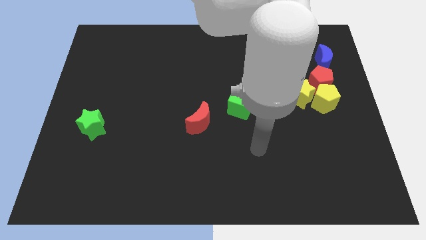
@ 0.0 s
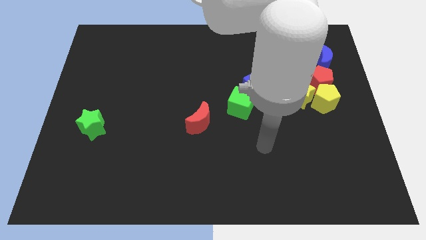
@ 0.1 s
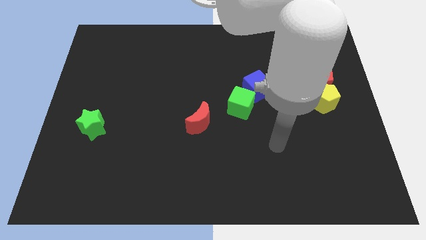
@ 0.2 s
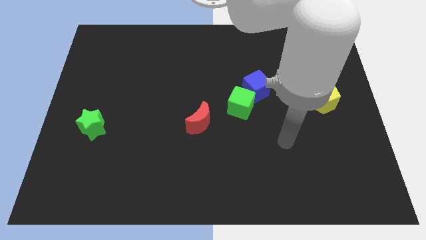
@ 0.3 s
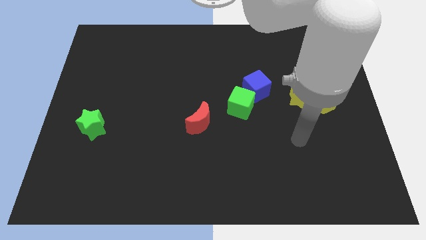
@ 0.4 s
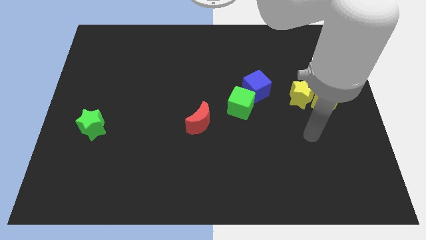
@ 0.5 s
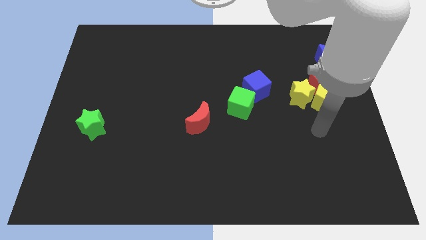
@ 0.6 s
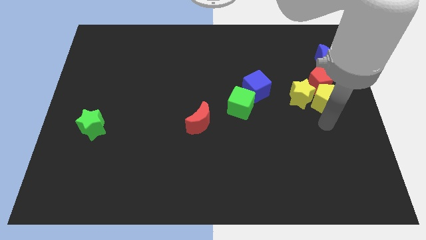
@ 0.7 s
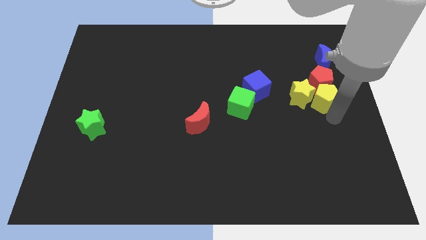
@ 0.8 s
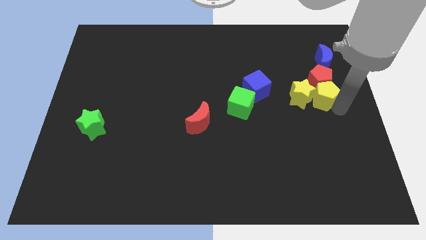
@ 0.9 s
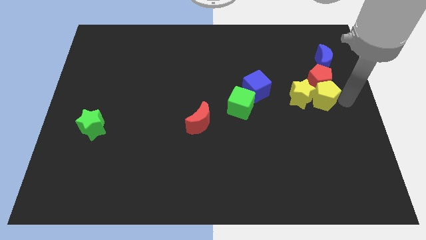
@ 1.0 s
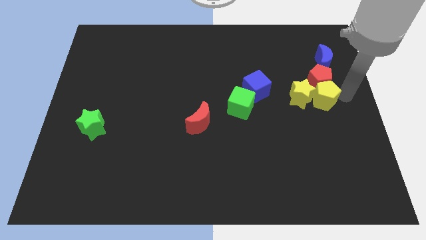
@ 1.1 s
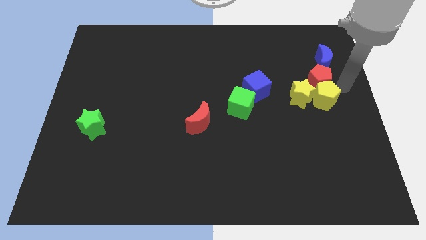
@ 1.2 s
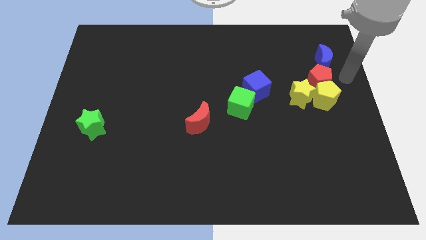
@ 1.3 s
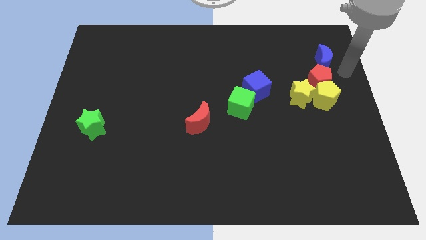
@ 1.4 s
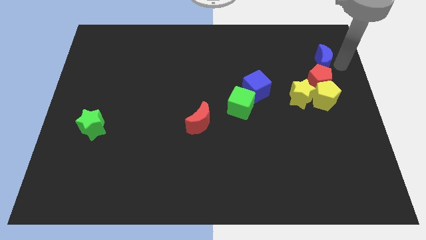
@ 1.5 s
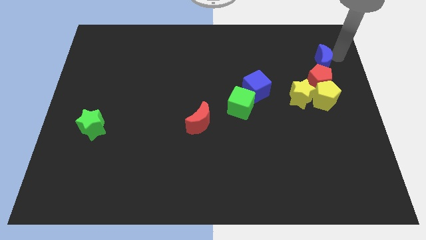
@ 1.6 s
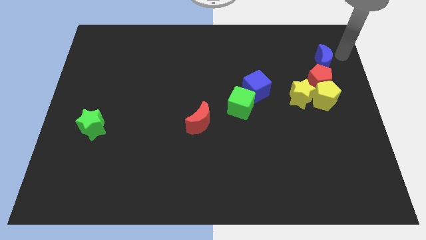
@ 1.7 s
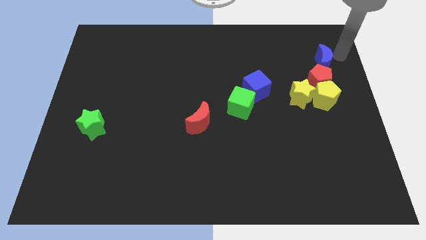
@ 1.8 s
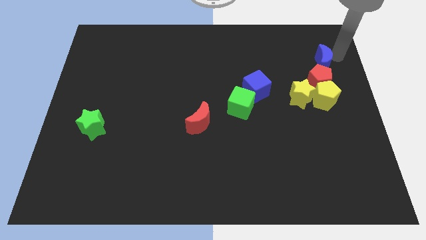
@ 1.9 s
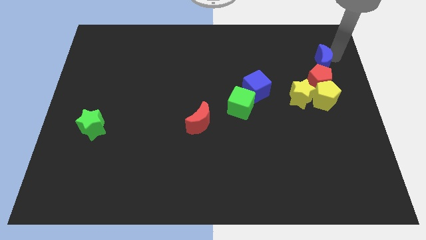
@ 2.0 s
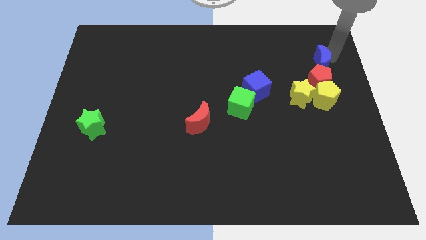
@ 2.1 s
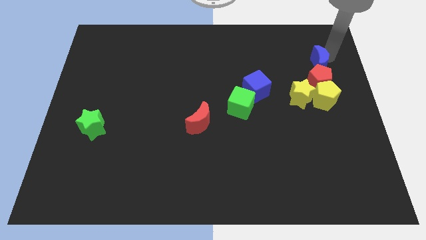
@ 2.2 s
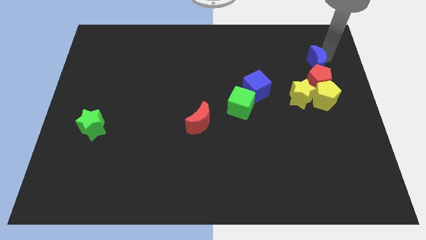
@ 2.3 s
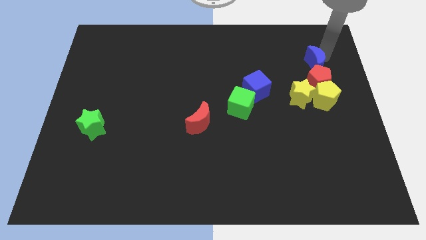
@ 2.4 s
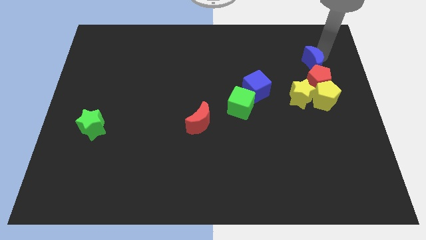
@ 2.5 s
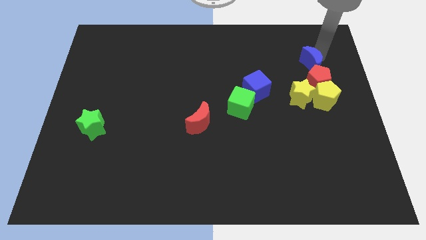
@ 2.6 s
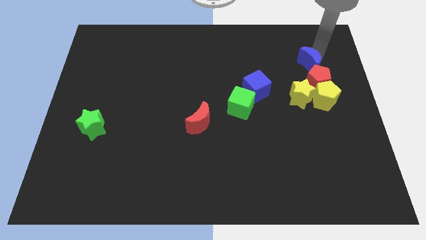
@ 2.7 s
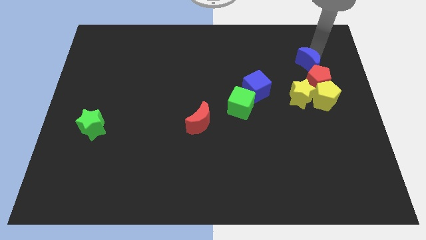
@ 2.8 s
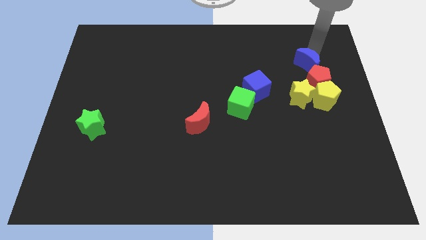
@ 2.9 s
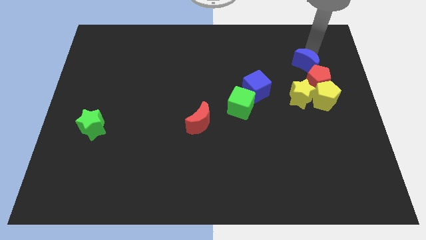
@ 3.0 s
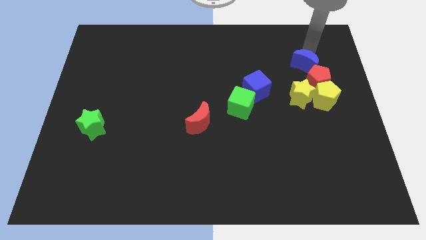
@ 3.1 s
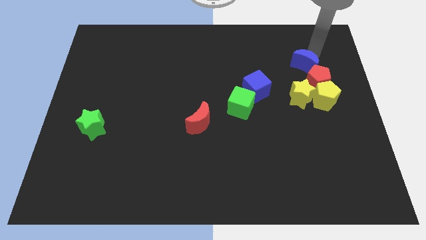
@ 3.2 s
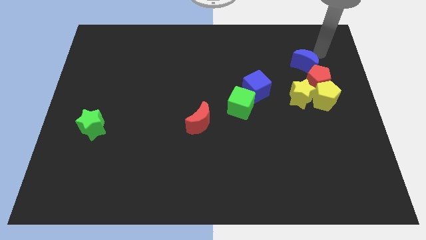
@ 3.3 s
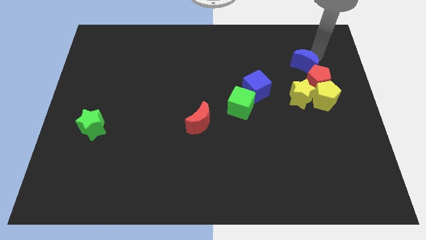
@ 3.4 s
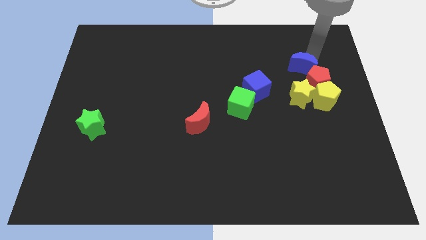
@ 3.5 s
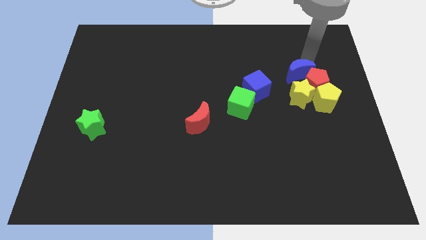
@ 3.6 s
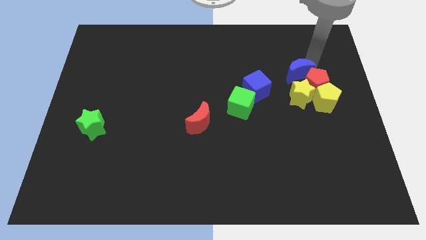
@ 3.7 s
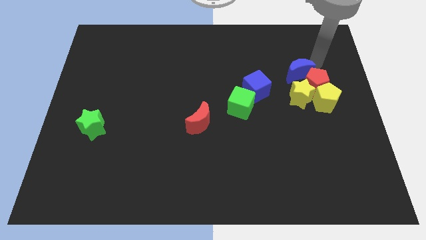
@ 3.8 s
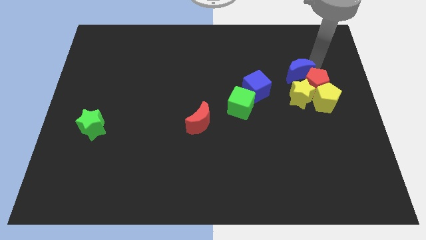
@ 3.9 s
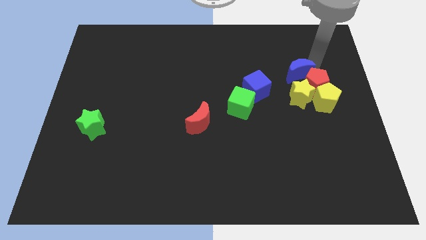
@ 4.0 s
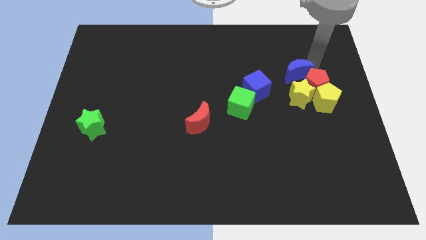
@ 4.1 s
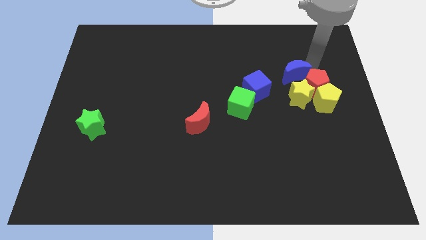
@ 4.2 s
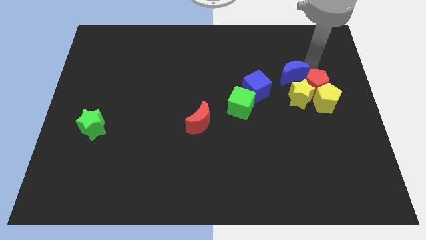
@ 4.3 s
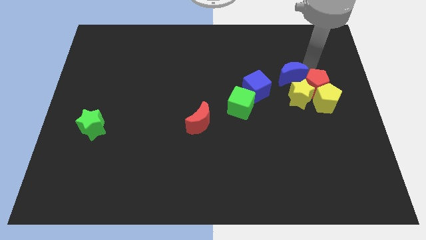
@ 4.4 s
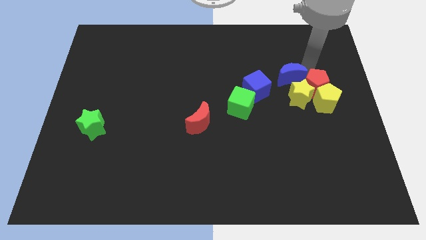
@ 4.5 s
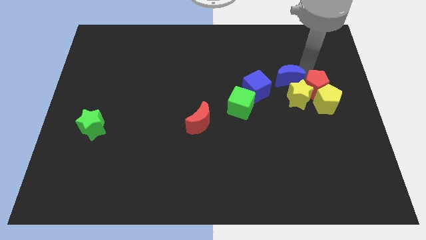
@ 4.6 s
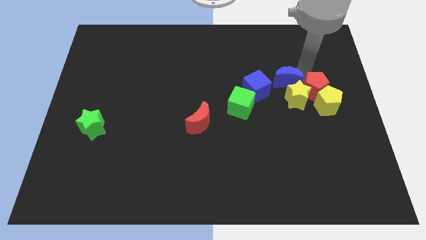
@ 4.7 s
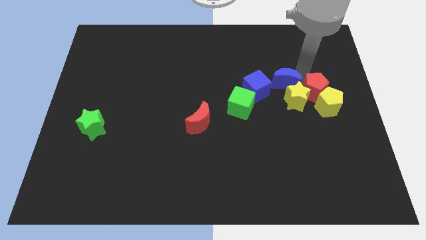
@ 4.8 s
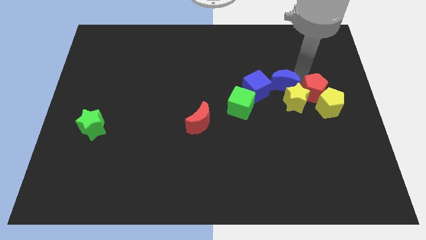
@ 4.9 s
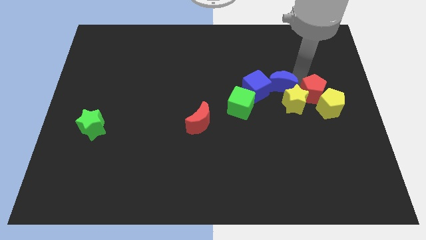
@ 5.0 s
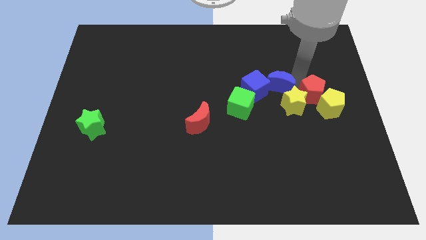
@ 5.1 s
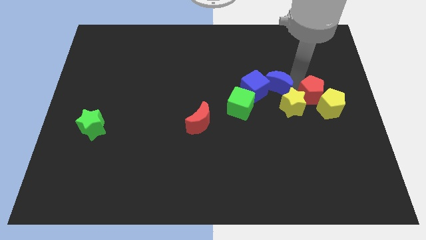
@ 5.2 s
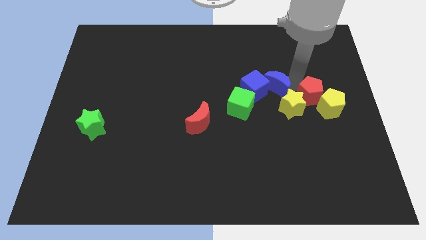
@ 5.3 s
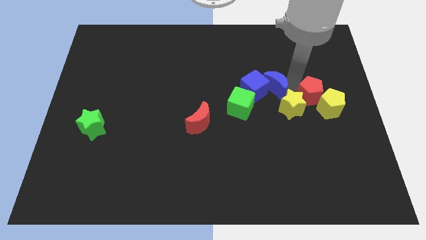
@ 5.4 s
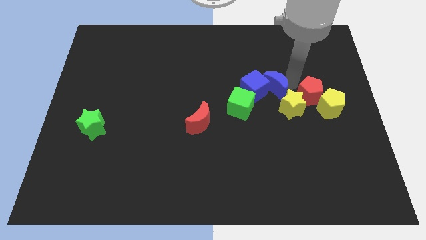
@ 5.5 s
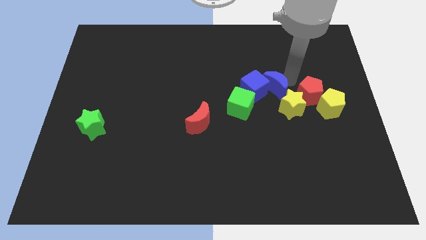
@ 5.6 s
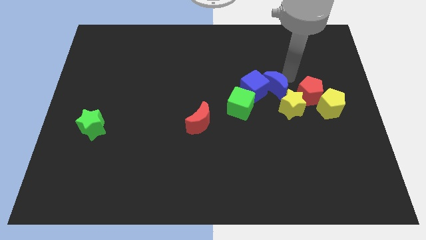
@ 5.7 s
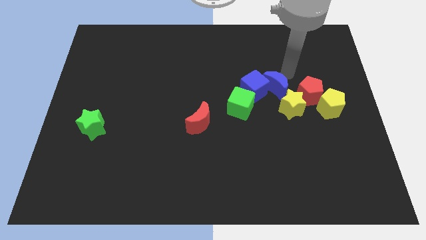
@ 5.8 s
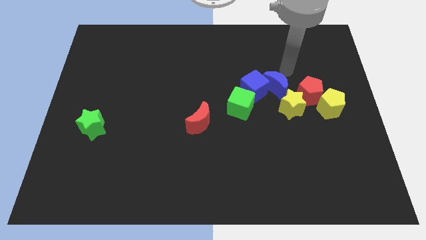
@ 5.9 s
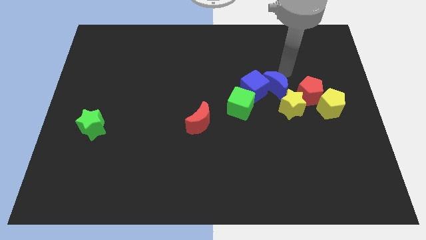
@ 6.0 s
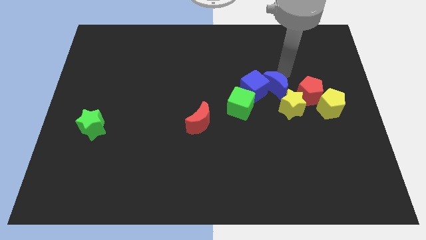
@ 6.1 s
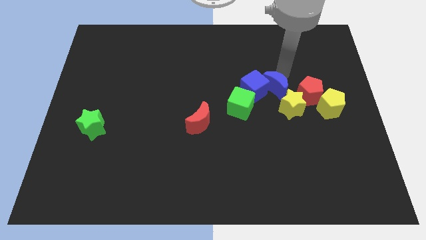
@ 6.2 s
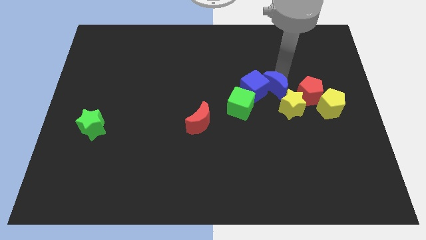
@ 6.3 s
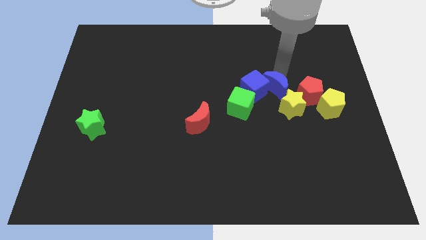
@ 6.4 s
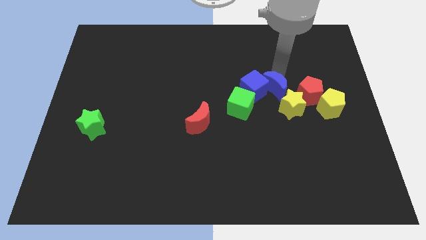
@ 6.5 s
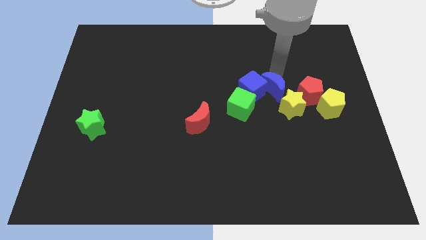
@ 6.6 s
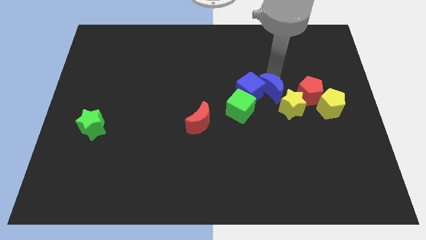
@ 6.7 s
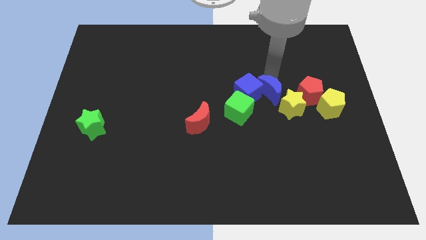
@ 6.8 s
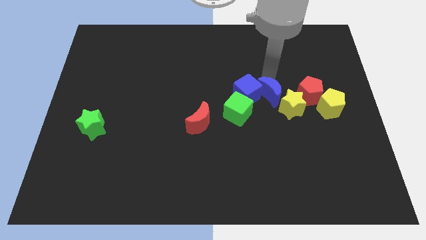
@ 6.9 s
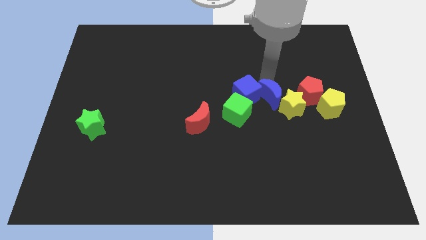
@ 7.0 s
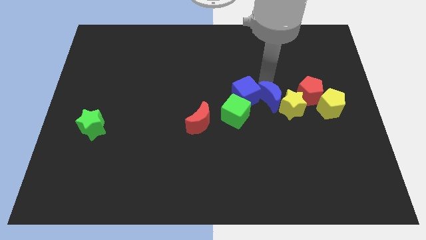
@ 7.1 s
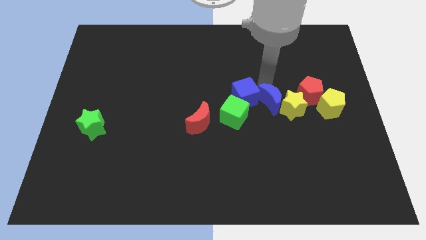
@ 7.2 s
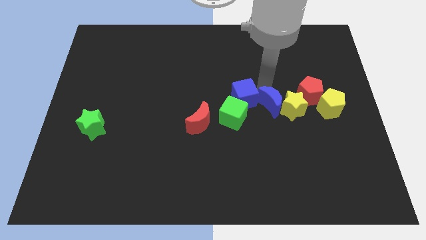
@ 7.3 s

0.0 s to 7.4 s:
slide the blue moon diagonally downwards and left

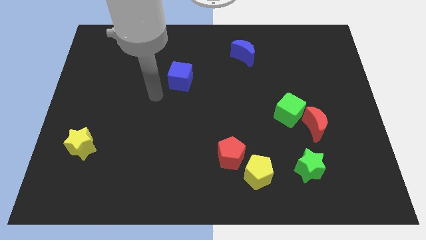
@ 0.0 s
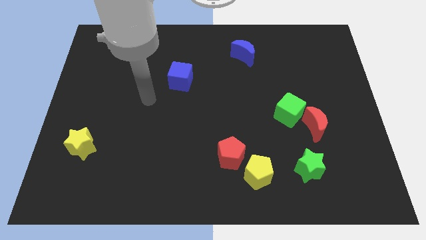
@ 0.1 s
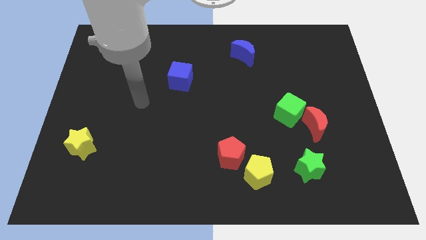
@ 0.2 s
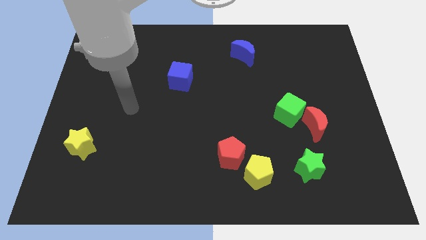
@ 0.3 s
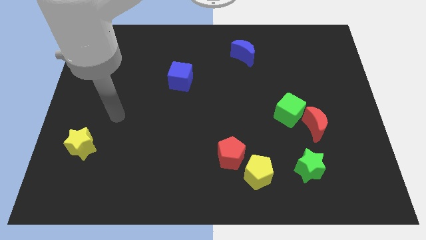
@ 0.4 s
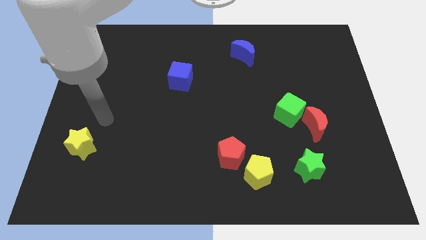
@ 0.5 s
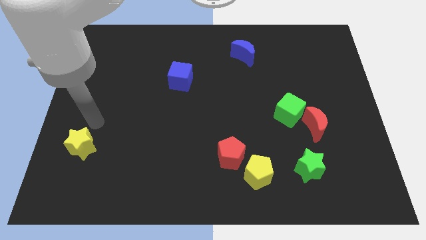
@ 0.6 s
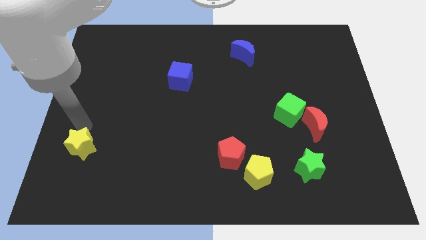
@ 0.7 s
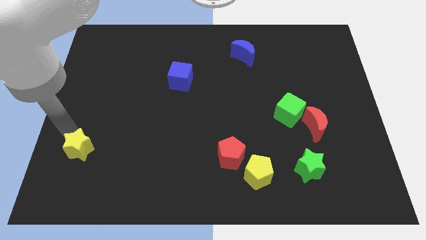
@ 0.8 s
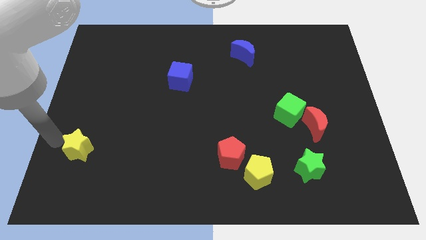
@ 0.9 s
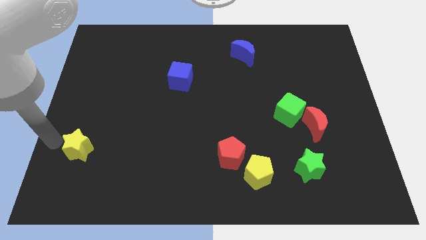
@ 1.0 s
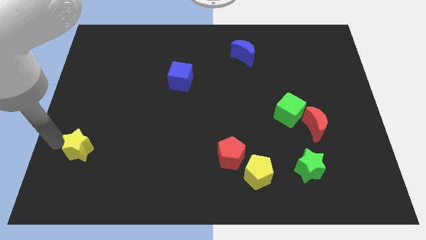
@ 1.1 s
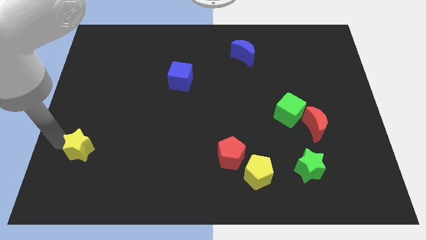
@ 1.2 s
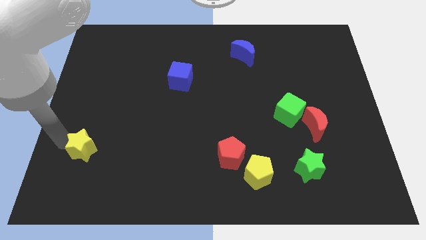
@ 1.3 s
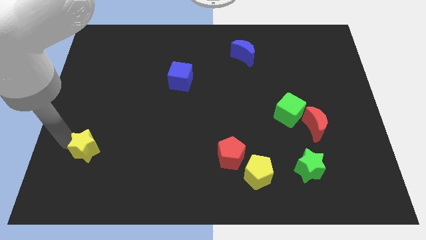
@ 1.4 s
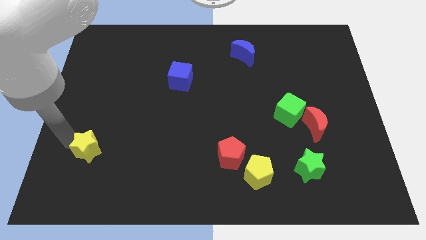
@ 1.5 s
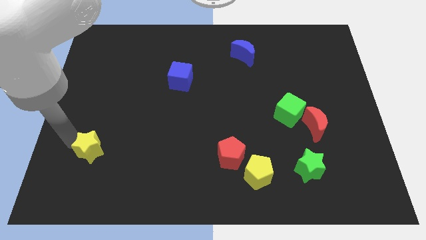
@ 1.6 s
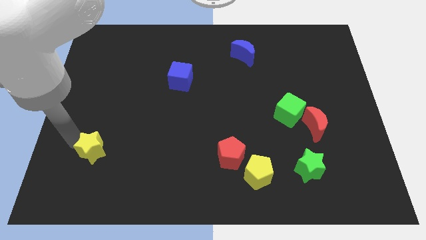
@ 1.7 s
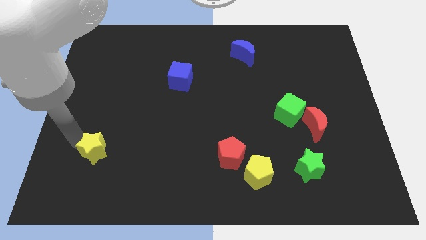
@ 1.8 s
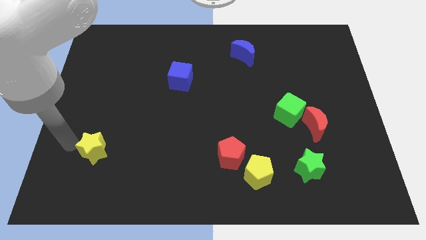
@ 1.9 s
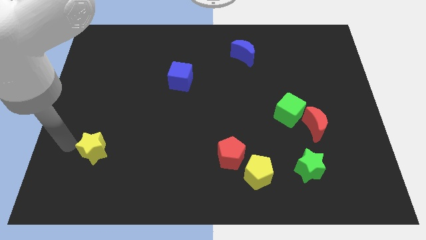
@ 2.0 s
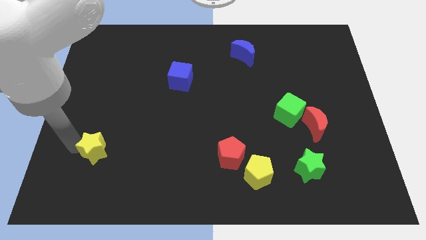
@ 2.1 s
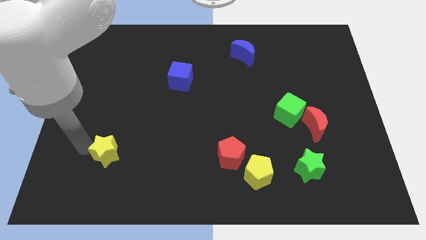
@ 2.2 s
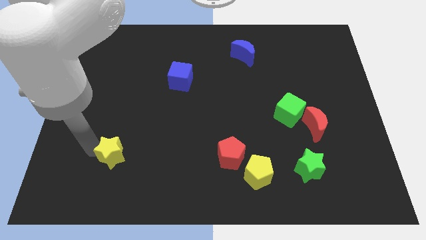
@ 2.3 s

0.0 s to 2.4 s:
slightly push the yellow star right
